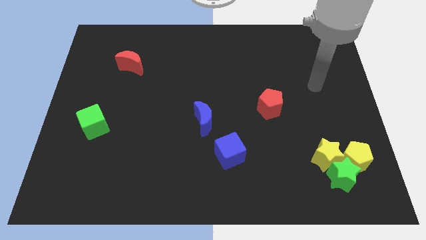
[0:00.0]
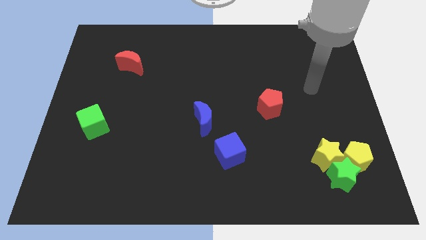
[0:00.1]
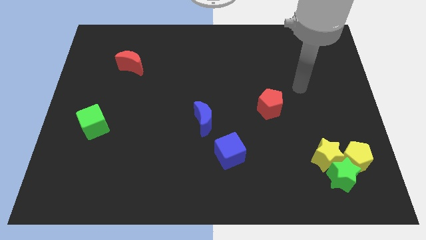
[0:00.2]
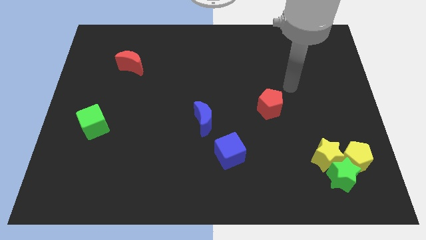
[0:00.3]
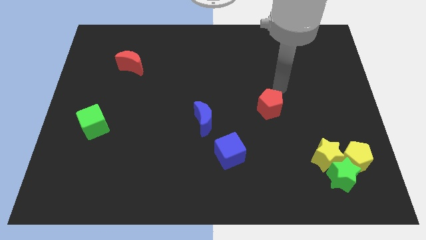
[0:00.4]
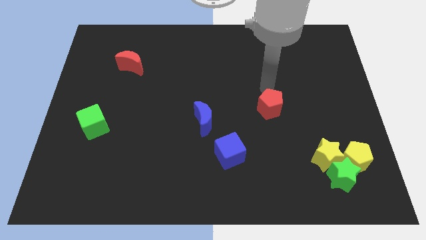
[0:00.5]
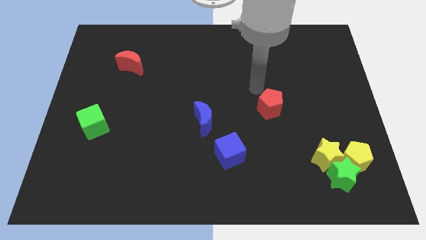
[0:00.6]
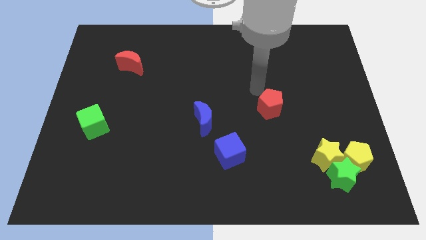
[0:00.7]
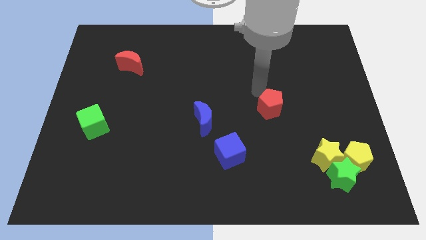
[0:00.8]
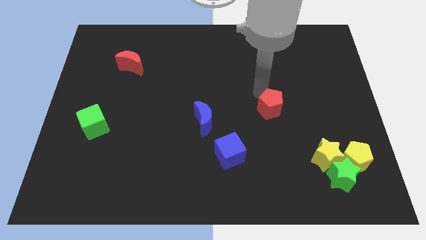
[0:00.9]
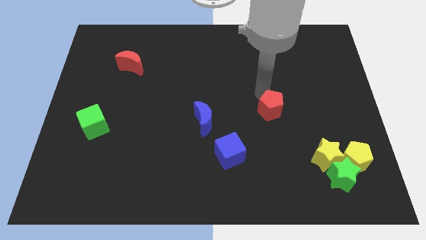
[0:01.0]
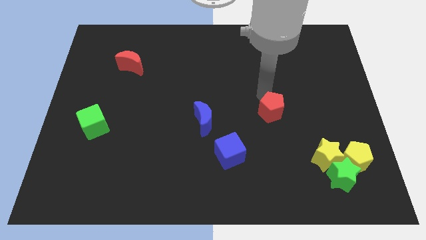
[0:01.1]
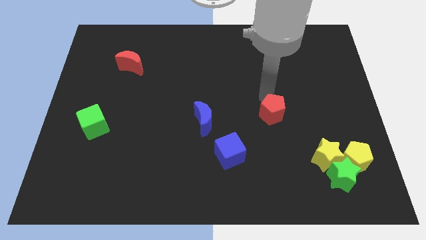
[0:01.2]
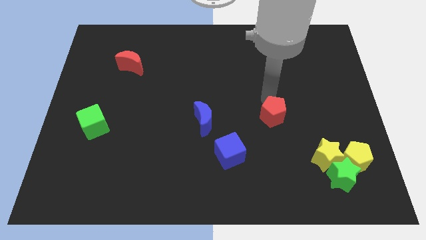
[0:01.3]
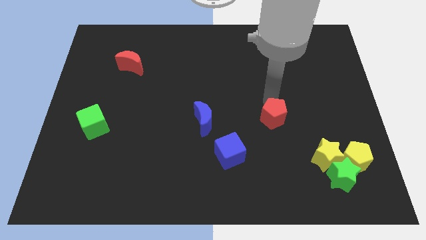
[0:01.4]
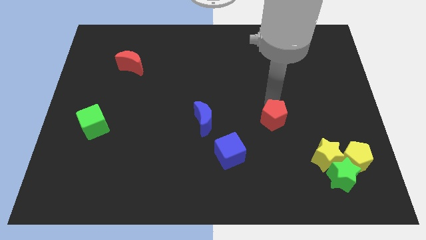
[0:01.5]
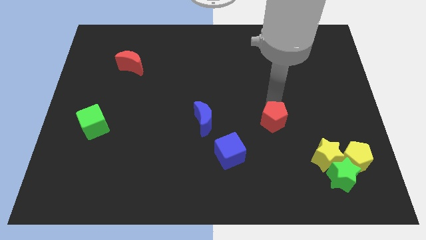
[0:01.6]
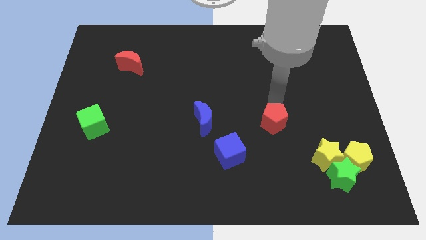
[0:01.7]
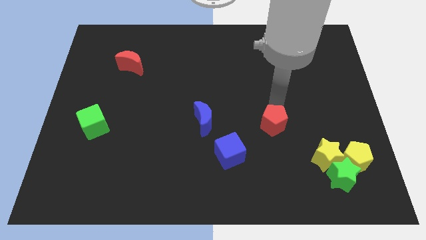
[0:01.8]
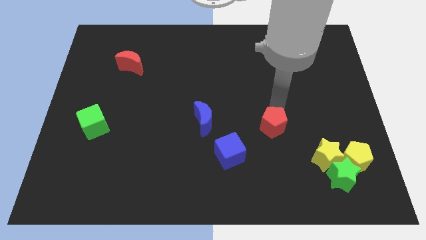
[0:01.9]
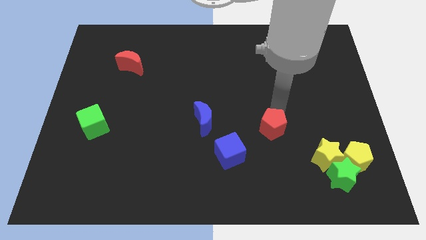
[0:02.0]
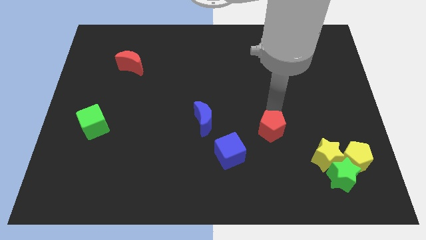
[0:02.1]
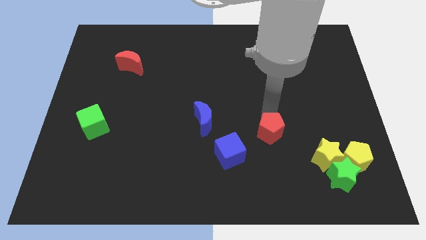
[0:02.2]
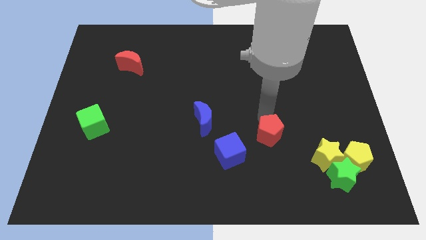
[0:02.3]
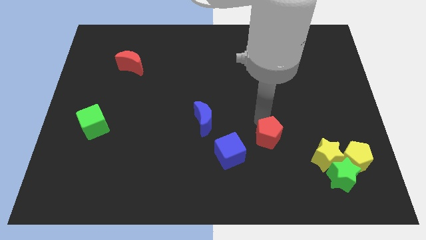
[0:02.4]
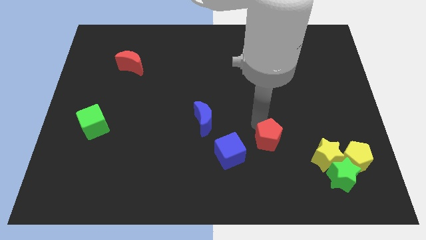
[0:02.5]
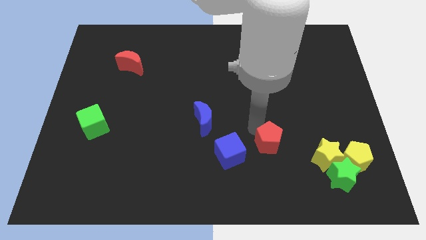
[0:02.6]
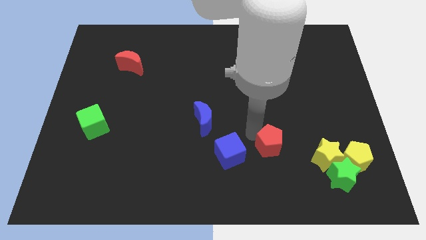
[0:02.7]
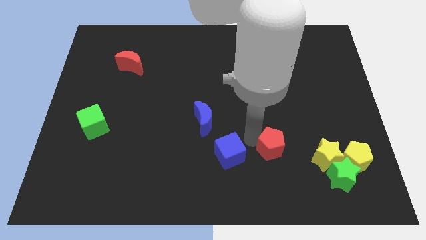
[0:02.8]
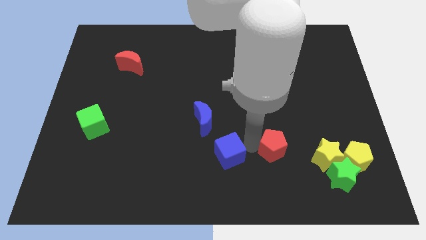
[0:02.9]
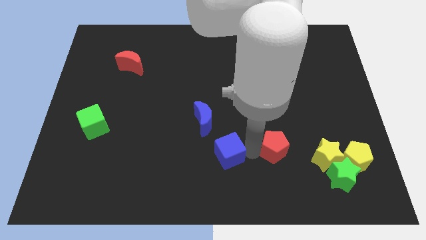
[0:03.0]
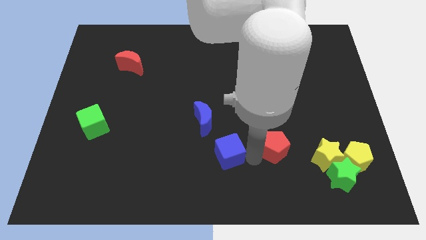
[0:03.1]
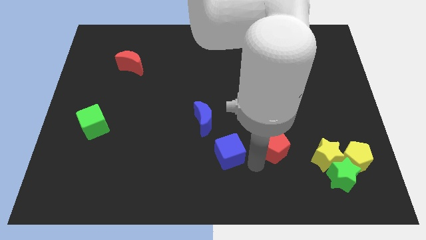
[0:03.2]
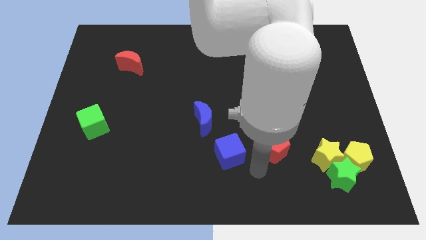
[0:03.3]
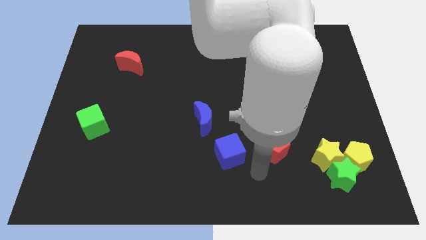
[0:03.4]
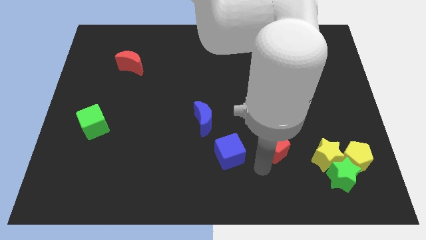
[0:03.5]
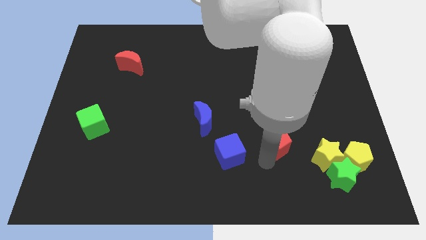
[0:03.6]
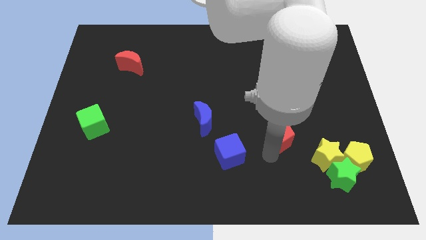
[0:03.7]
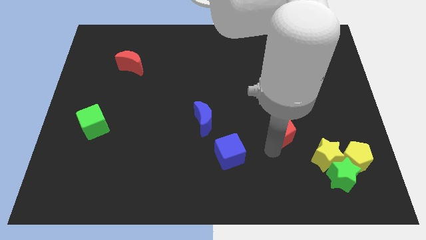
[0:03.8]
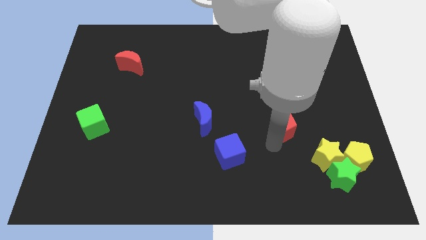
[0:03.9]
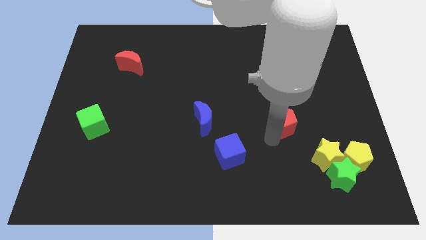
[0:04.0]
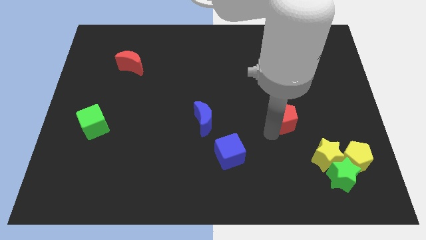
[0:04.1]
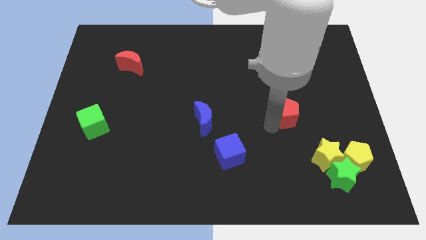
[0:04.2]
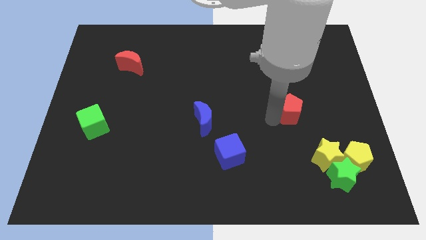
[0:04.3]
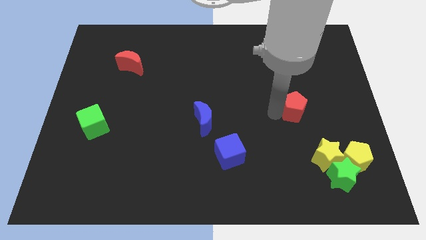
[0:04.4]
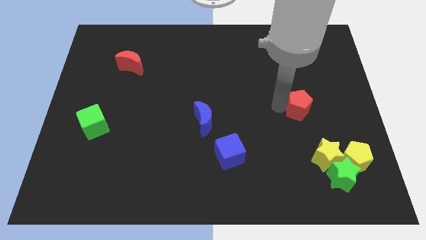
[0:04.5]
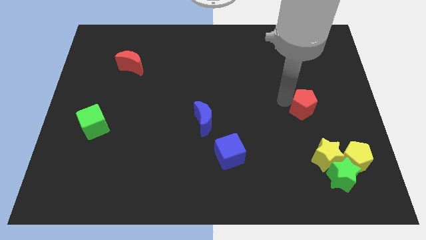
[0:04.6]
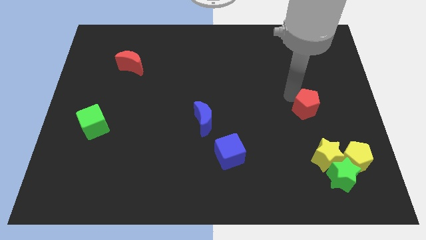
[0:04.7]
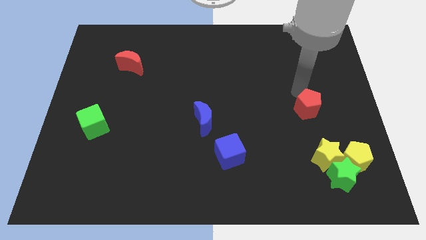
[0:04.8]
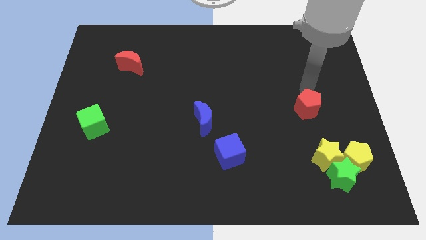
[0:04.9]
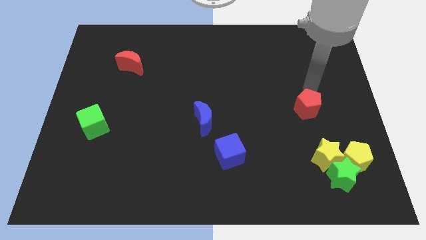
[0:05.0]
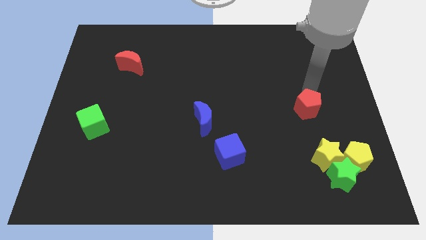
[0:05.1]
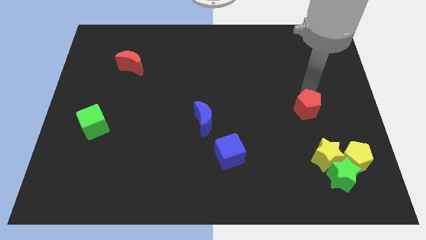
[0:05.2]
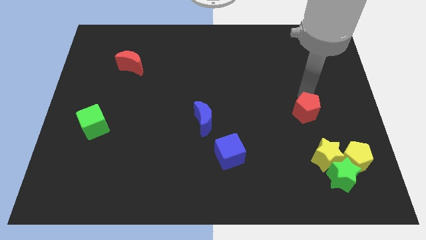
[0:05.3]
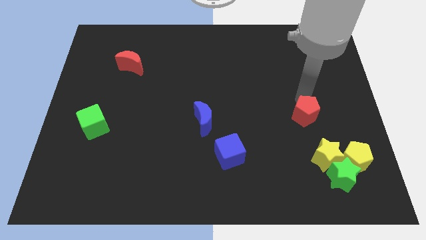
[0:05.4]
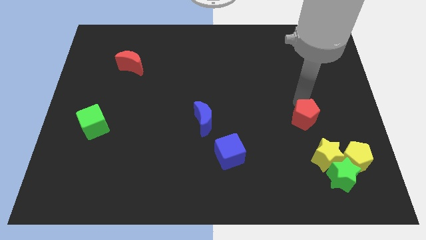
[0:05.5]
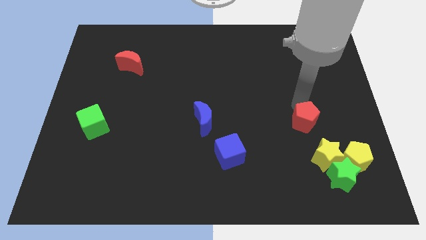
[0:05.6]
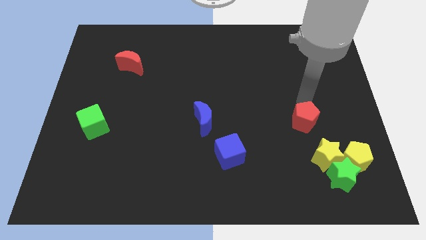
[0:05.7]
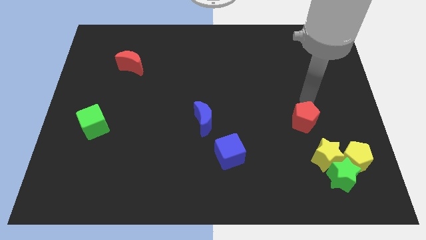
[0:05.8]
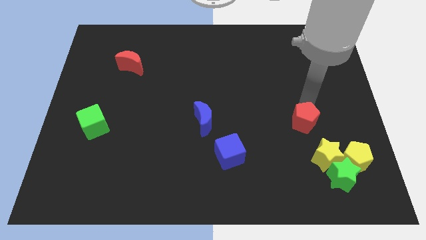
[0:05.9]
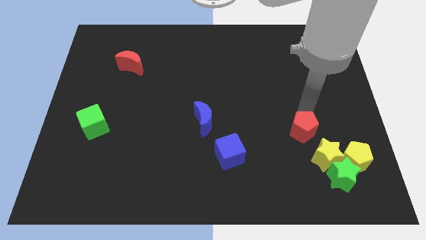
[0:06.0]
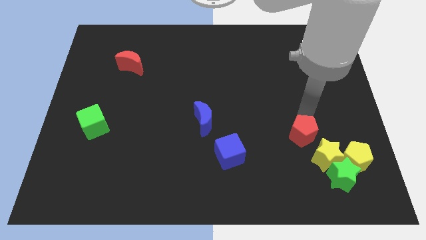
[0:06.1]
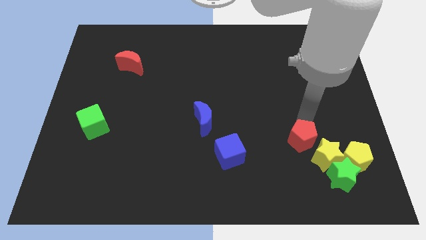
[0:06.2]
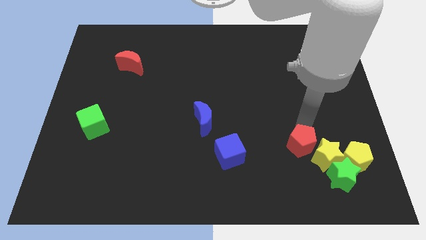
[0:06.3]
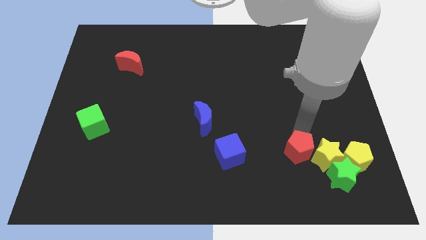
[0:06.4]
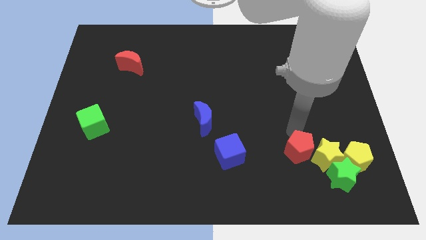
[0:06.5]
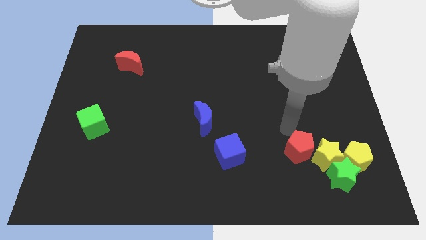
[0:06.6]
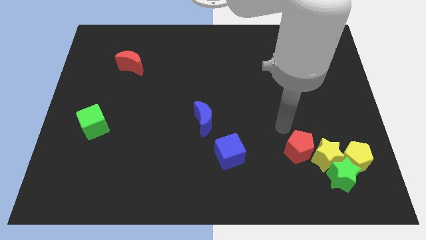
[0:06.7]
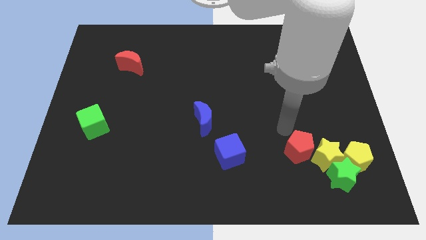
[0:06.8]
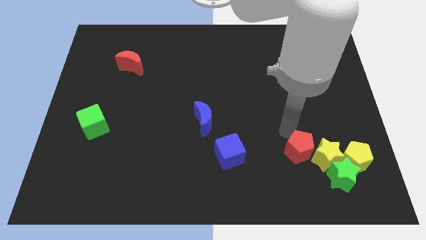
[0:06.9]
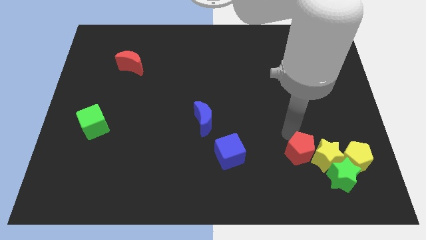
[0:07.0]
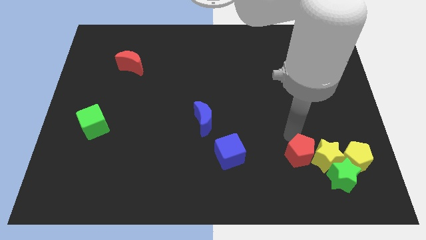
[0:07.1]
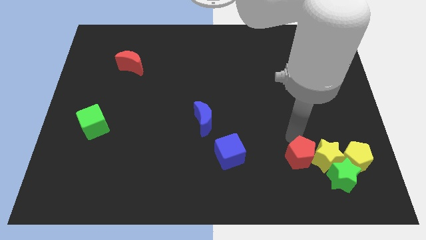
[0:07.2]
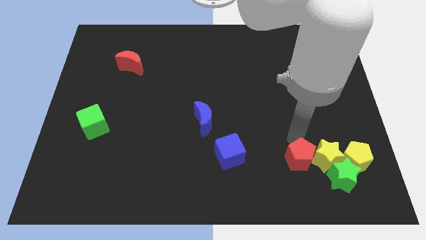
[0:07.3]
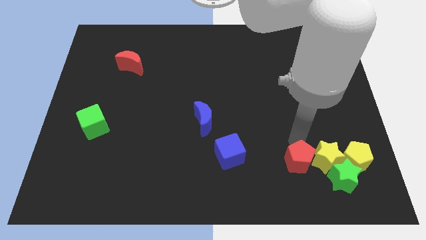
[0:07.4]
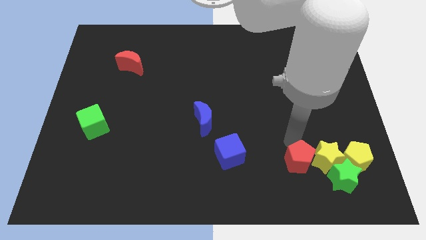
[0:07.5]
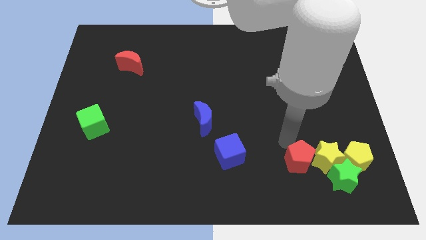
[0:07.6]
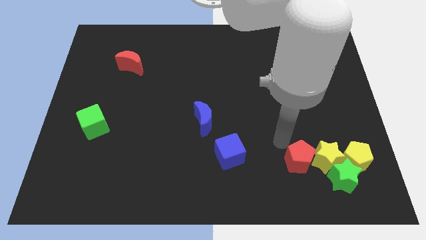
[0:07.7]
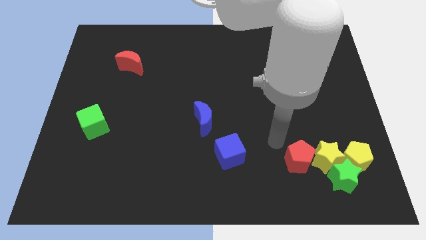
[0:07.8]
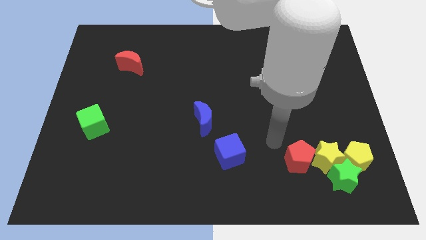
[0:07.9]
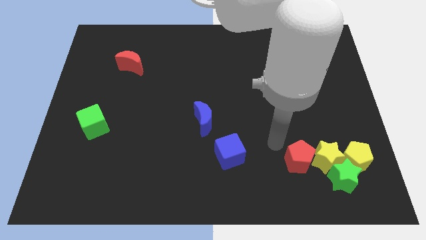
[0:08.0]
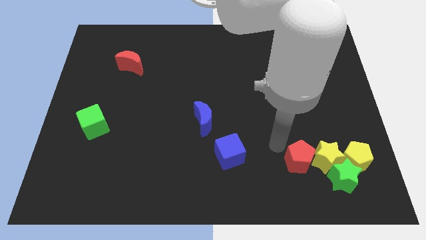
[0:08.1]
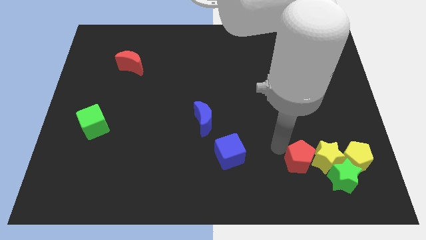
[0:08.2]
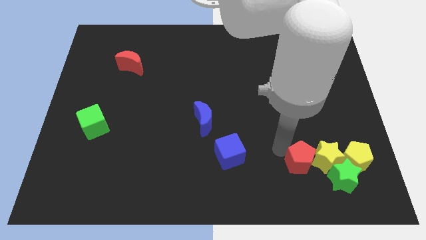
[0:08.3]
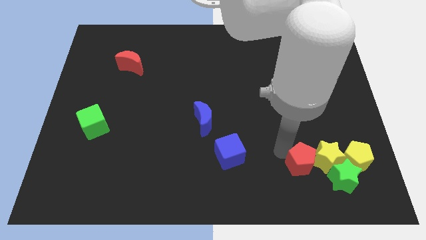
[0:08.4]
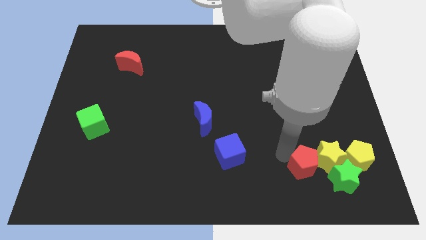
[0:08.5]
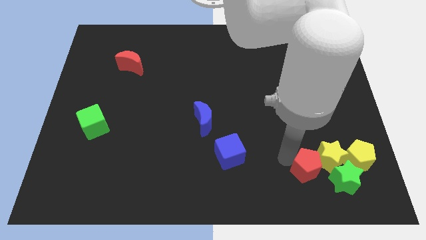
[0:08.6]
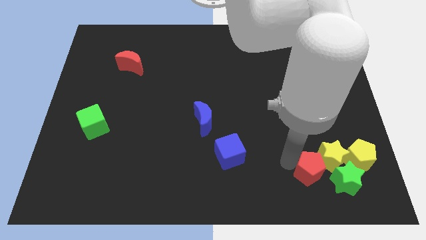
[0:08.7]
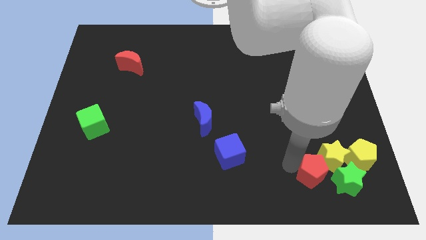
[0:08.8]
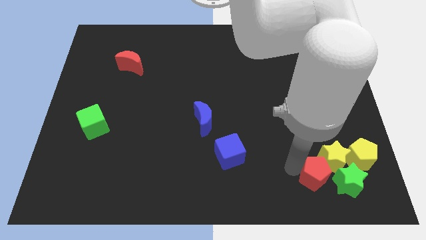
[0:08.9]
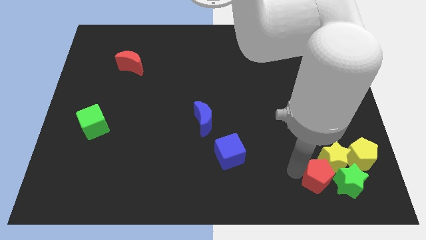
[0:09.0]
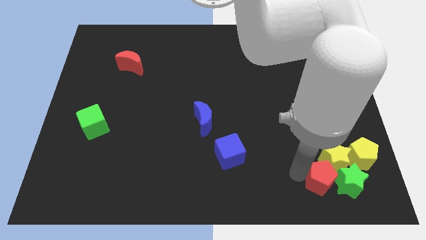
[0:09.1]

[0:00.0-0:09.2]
move the red pentagon close to the green star
